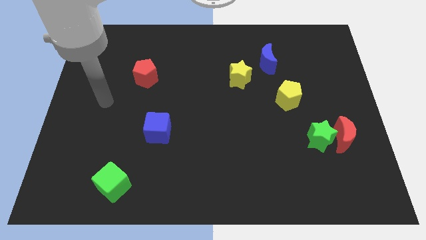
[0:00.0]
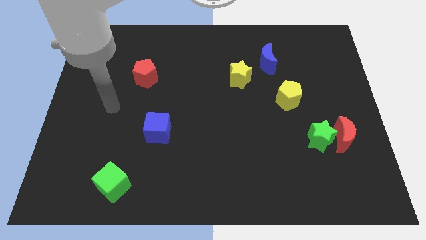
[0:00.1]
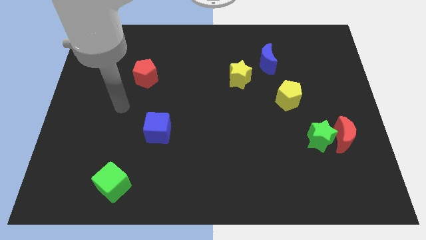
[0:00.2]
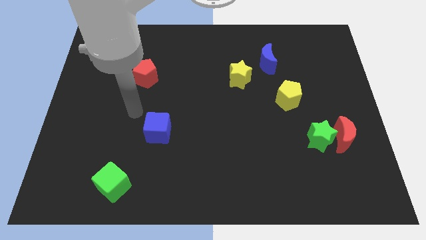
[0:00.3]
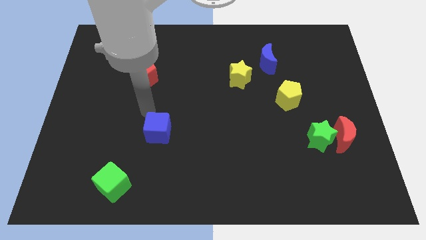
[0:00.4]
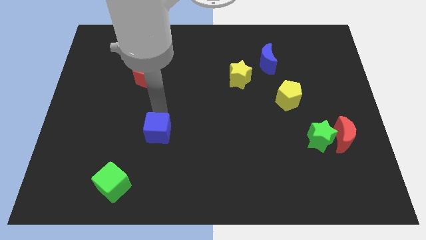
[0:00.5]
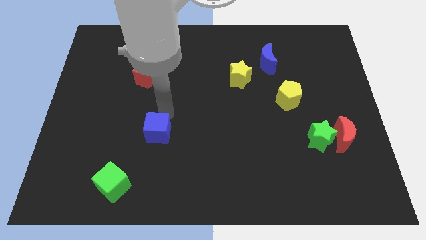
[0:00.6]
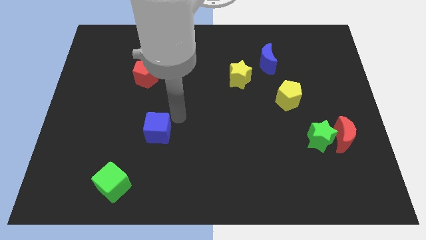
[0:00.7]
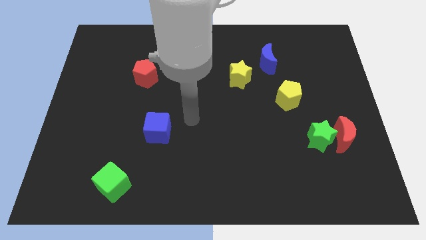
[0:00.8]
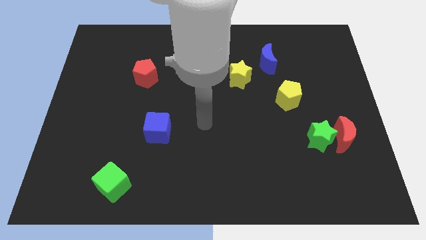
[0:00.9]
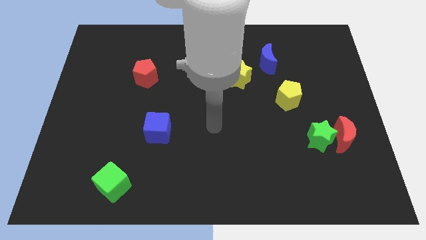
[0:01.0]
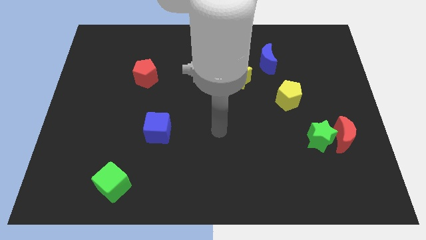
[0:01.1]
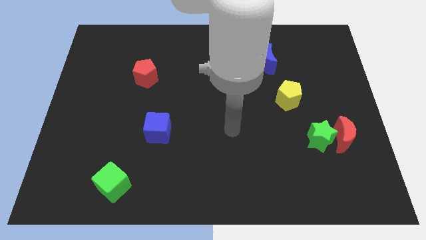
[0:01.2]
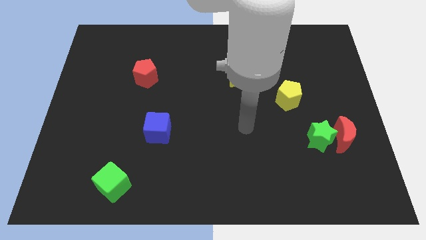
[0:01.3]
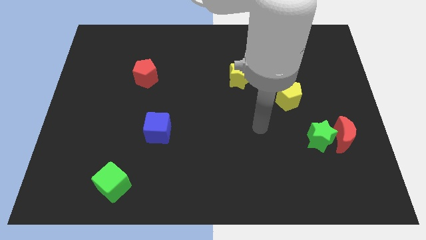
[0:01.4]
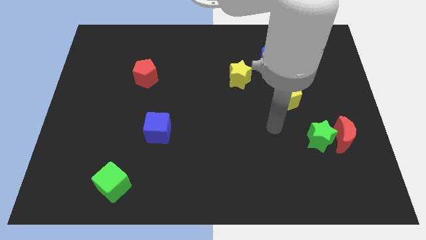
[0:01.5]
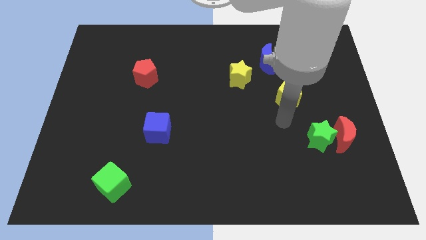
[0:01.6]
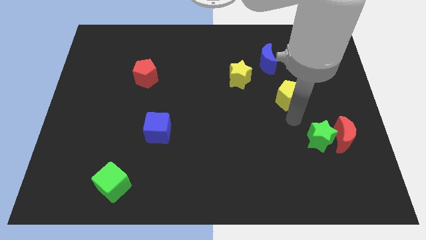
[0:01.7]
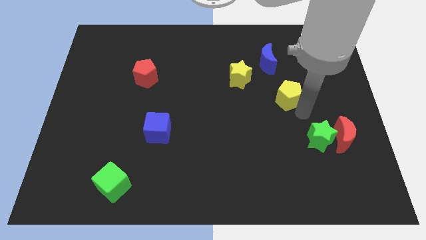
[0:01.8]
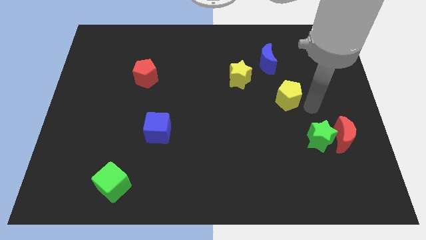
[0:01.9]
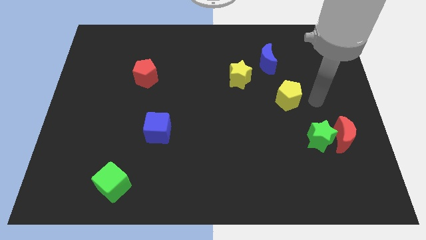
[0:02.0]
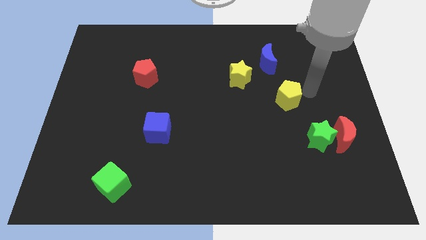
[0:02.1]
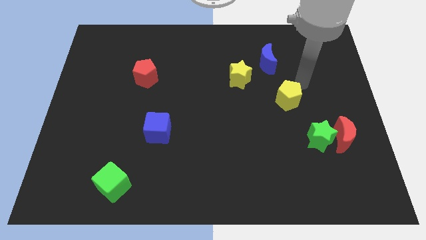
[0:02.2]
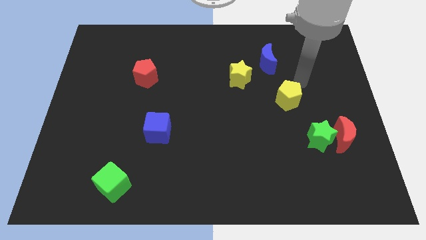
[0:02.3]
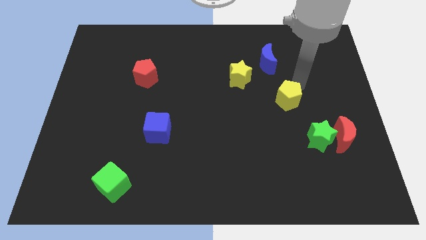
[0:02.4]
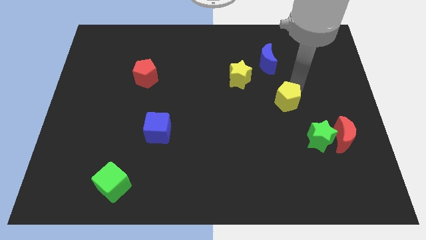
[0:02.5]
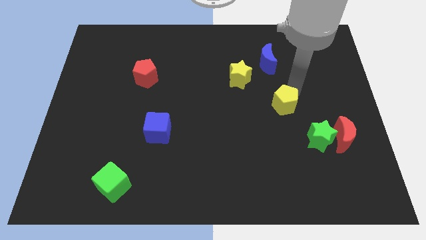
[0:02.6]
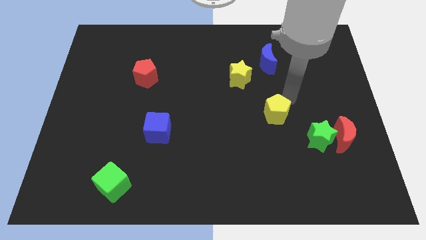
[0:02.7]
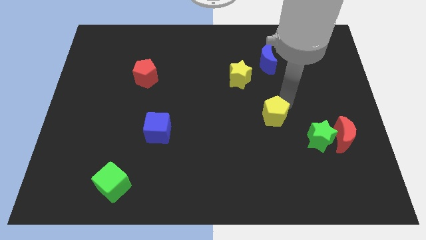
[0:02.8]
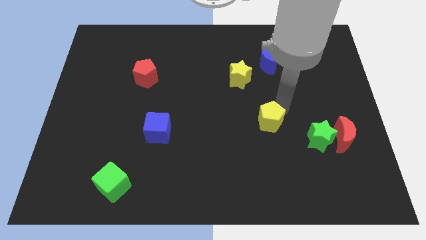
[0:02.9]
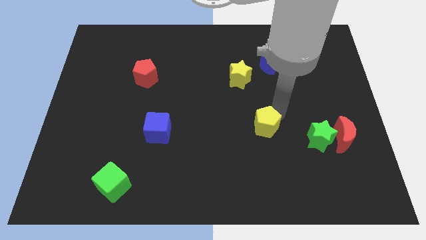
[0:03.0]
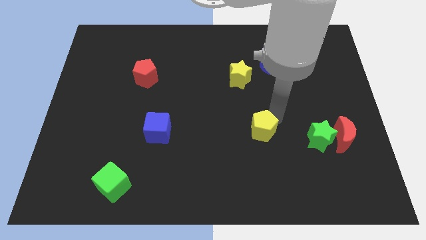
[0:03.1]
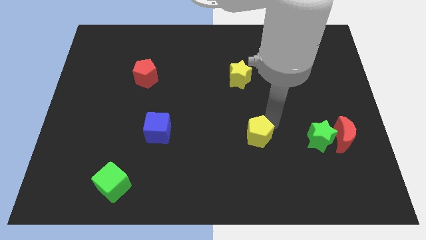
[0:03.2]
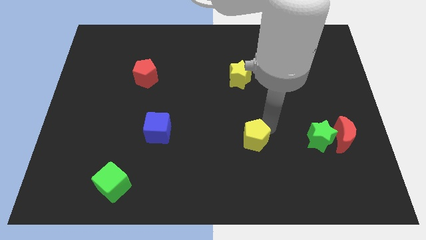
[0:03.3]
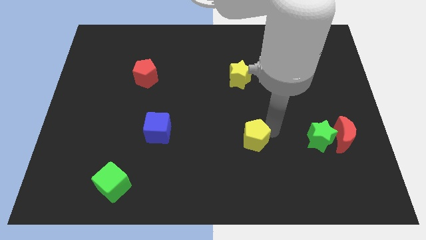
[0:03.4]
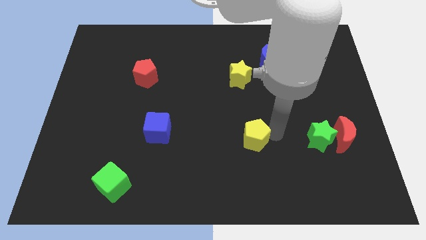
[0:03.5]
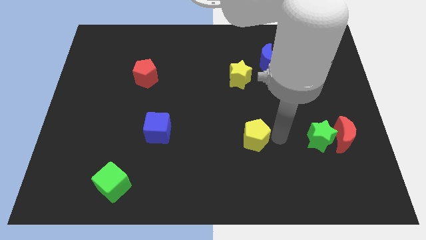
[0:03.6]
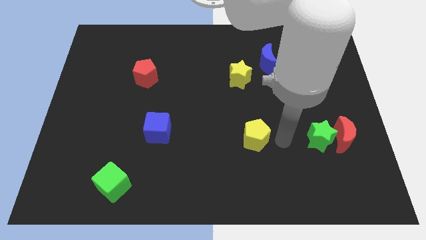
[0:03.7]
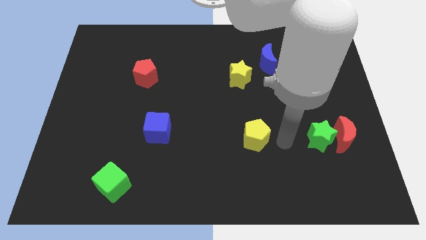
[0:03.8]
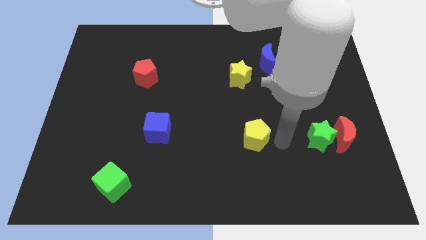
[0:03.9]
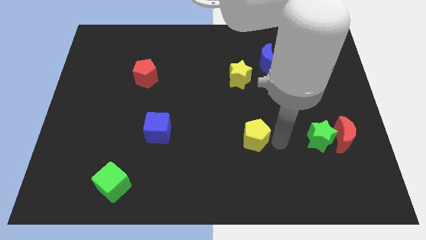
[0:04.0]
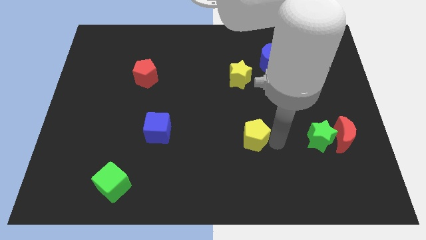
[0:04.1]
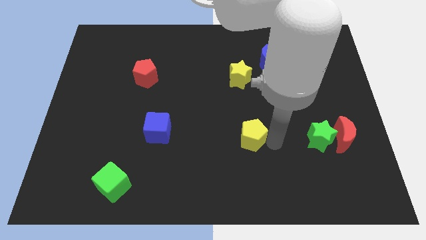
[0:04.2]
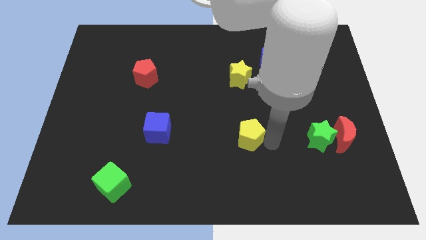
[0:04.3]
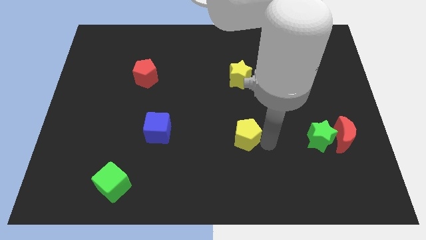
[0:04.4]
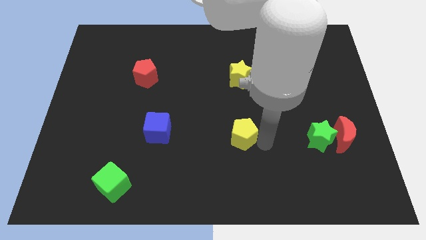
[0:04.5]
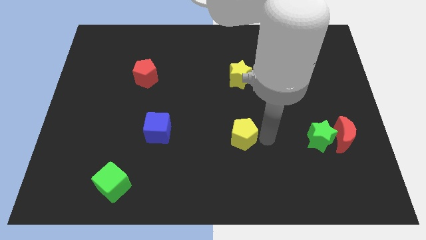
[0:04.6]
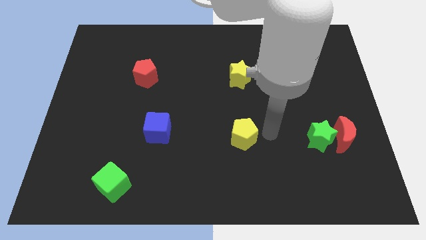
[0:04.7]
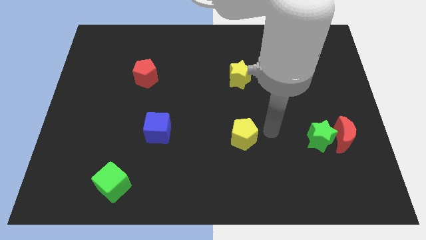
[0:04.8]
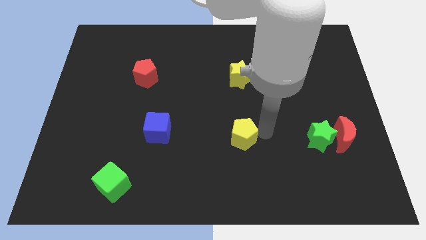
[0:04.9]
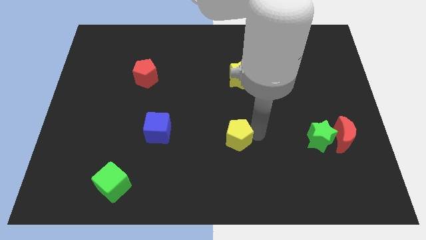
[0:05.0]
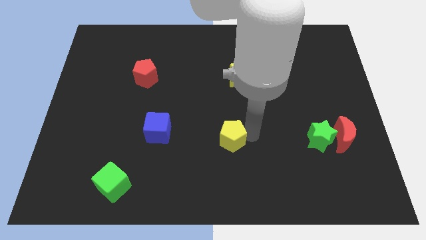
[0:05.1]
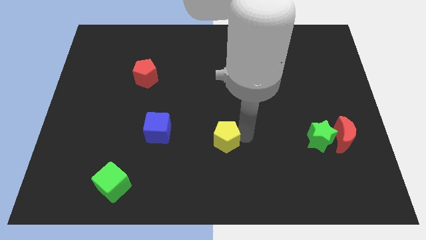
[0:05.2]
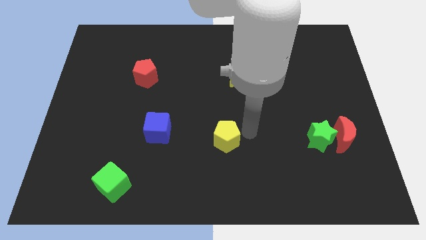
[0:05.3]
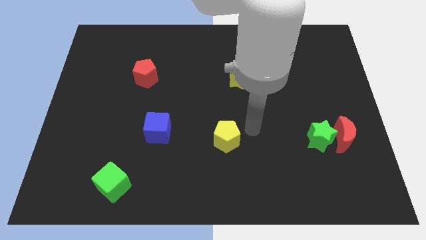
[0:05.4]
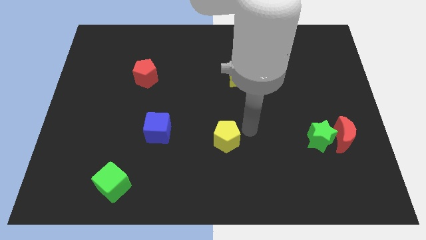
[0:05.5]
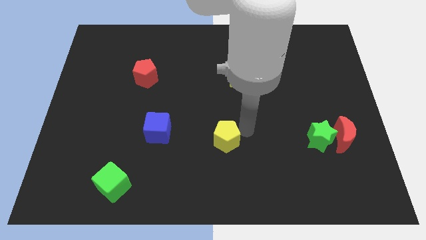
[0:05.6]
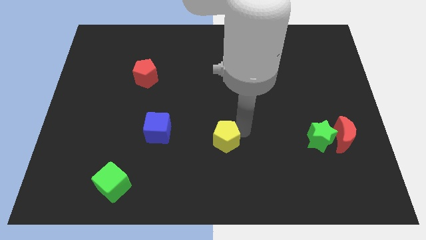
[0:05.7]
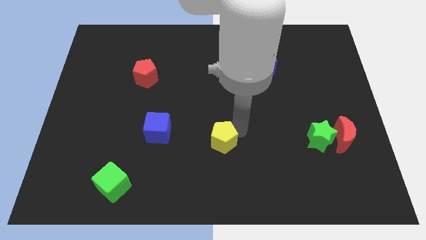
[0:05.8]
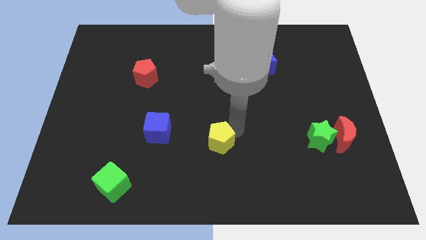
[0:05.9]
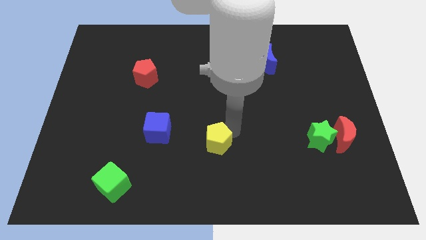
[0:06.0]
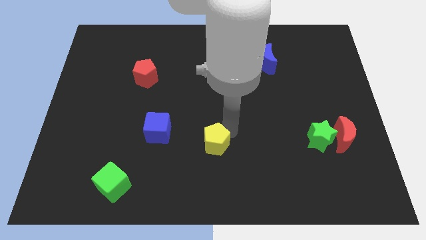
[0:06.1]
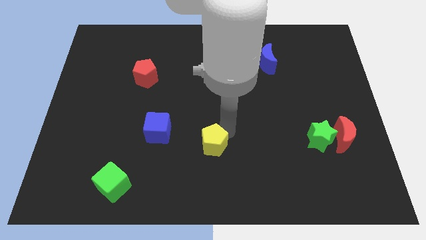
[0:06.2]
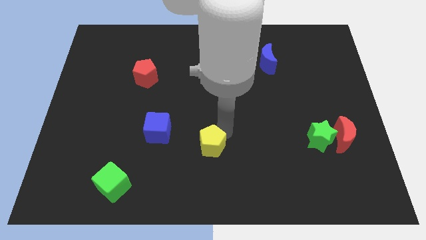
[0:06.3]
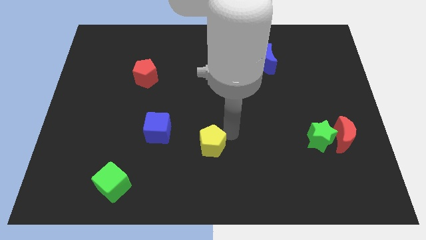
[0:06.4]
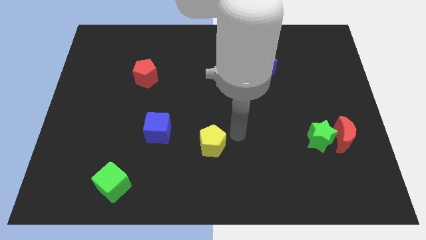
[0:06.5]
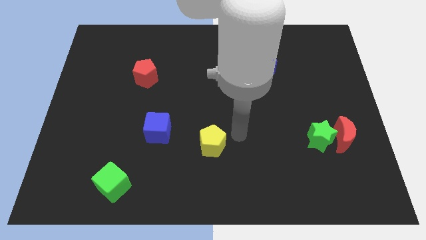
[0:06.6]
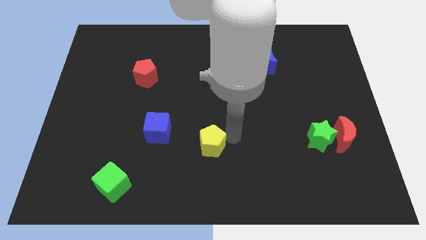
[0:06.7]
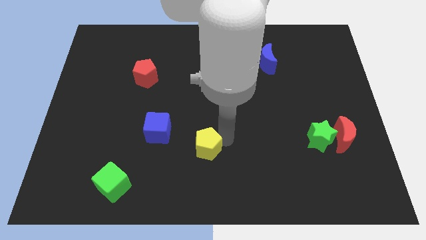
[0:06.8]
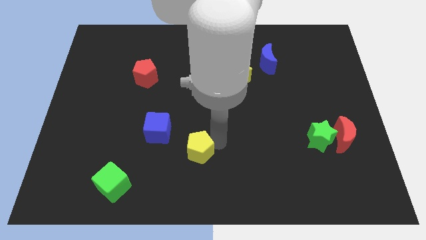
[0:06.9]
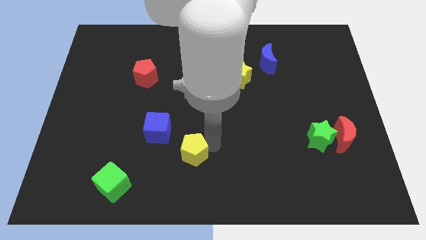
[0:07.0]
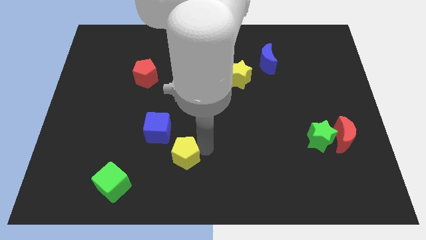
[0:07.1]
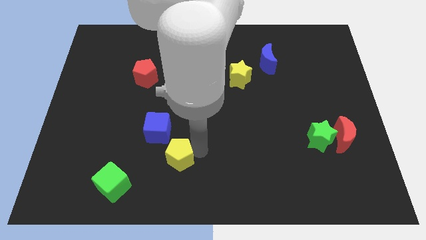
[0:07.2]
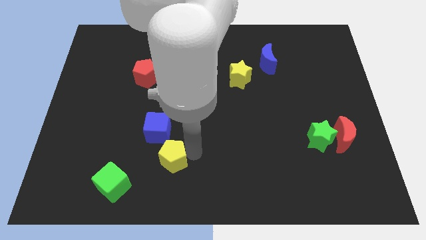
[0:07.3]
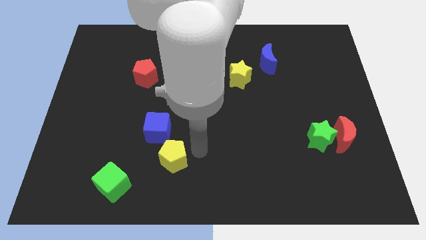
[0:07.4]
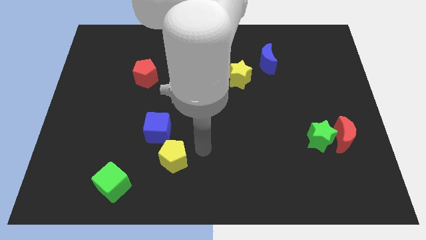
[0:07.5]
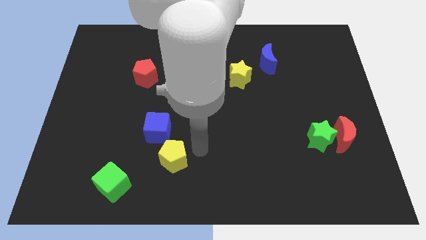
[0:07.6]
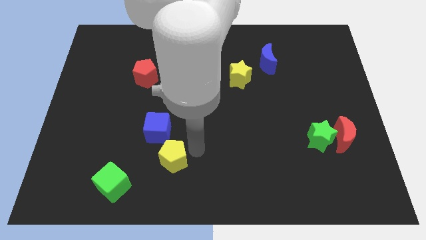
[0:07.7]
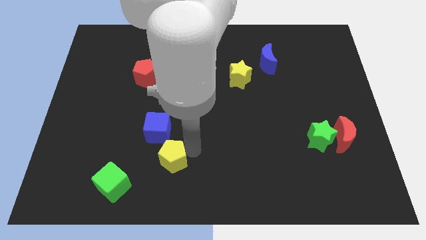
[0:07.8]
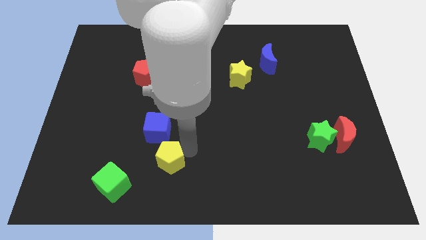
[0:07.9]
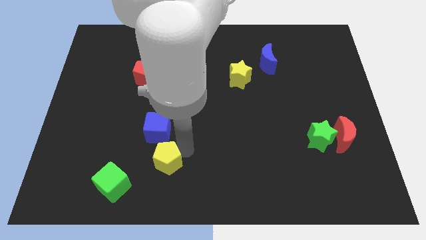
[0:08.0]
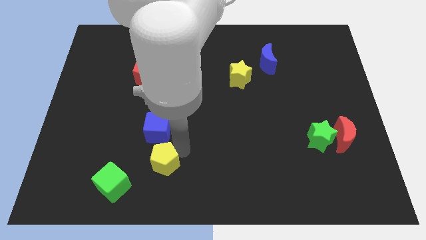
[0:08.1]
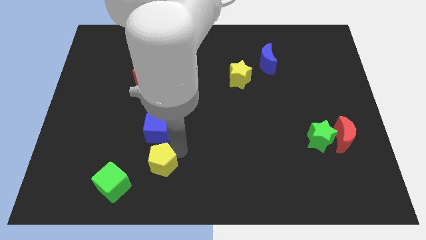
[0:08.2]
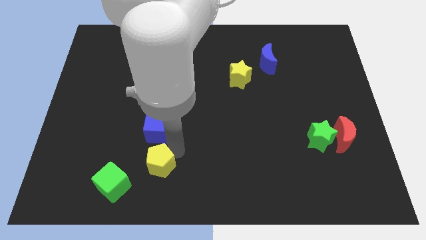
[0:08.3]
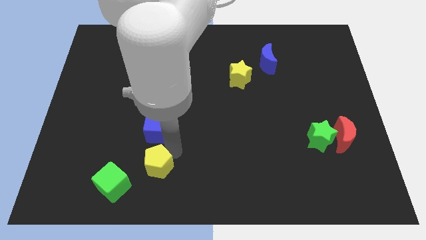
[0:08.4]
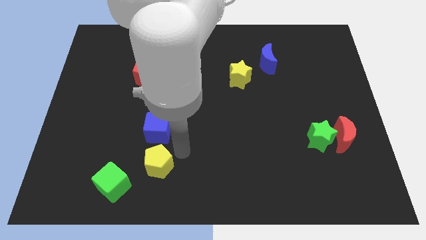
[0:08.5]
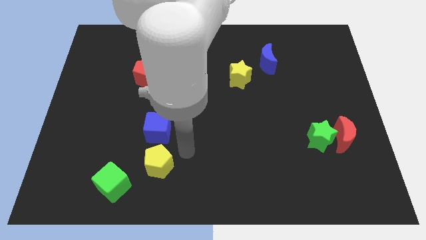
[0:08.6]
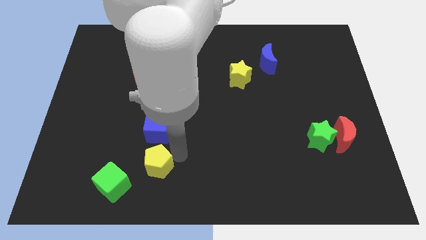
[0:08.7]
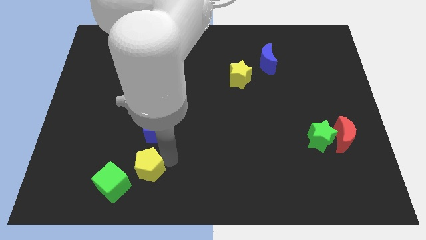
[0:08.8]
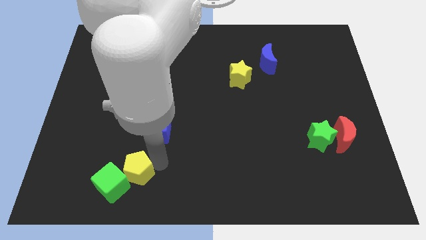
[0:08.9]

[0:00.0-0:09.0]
slide the yellow pentagon towards the green cube
